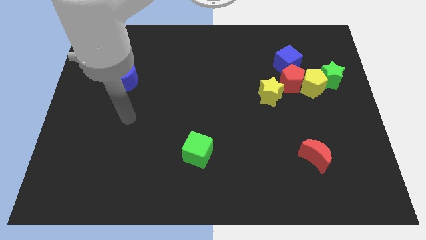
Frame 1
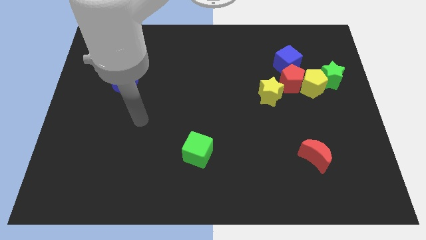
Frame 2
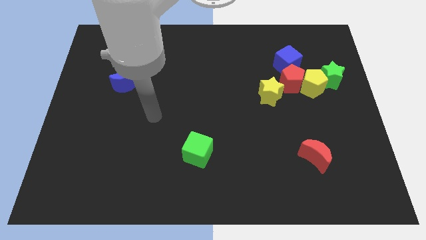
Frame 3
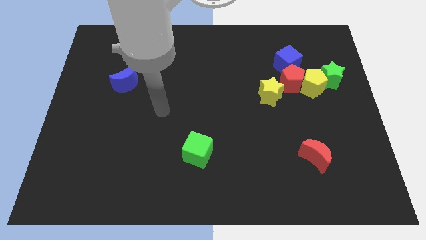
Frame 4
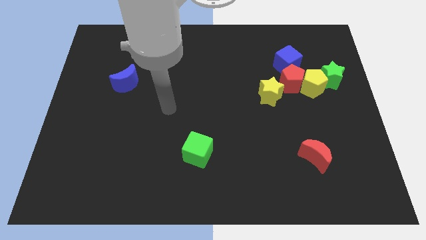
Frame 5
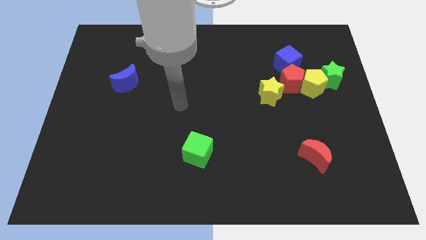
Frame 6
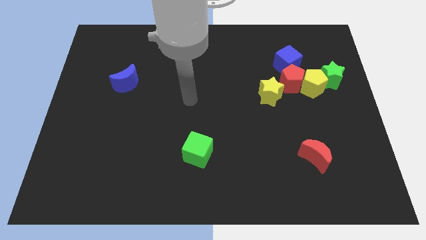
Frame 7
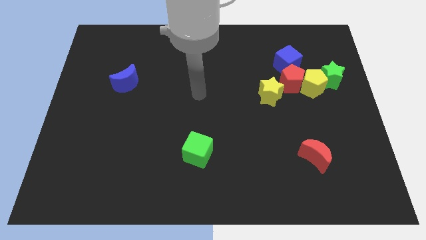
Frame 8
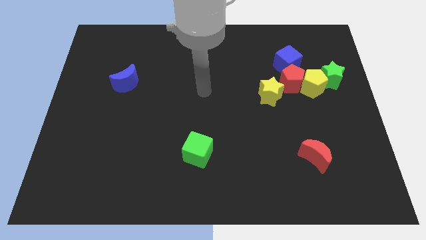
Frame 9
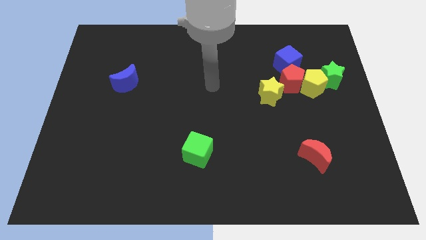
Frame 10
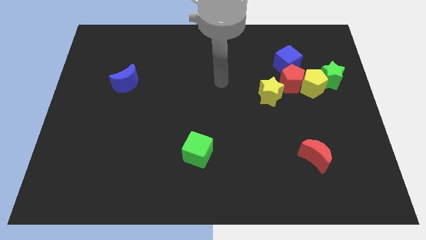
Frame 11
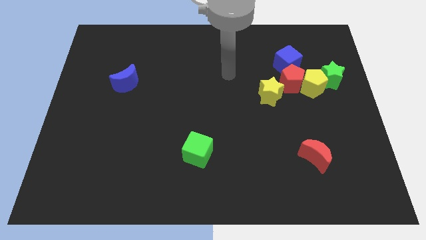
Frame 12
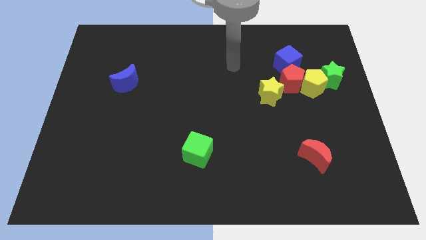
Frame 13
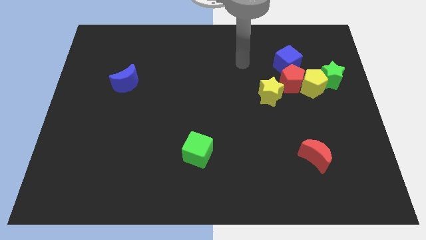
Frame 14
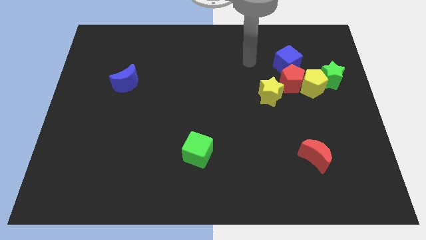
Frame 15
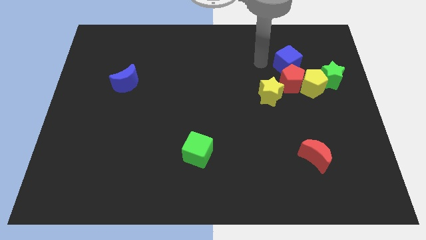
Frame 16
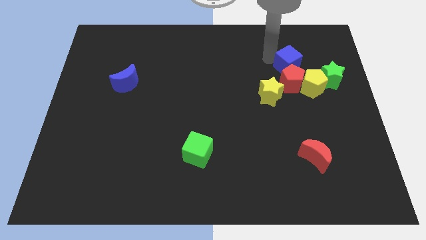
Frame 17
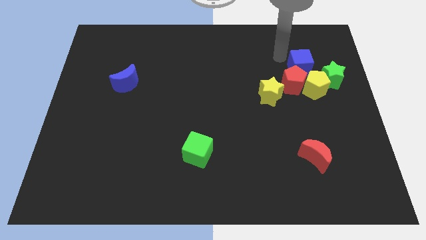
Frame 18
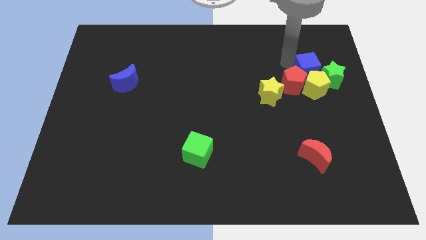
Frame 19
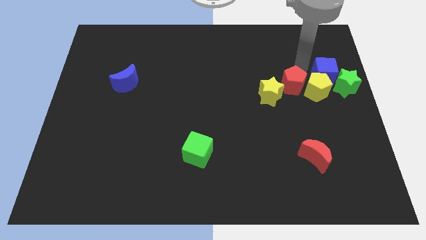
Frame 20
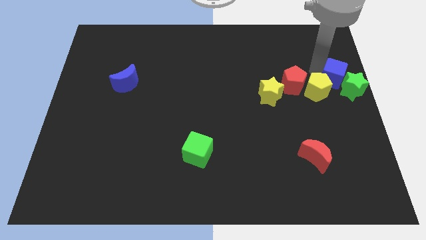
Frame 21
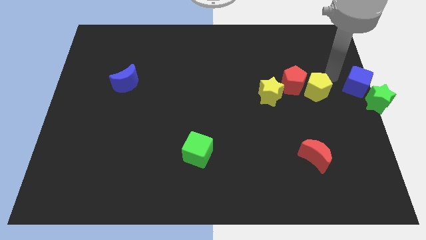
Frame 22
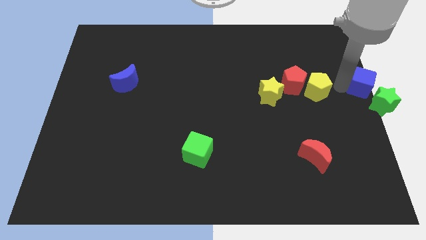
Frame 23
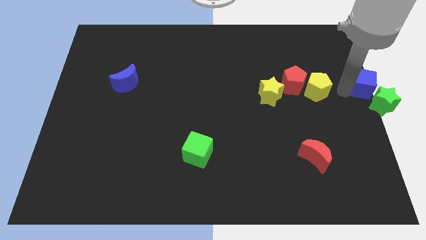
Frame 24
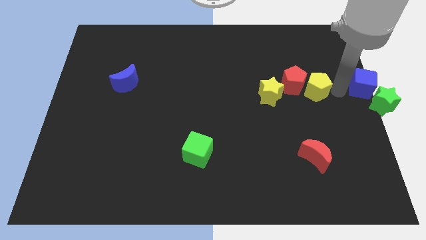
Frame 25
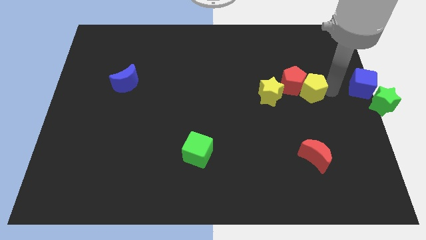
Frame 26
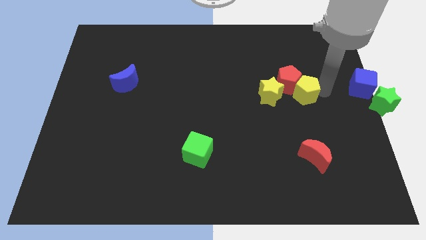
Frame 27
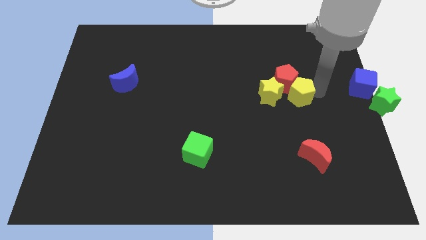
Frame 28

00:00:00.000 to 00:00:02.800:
separate the yellow pentagon from the group of blocks

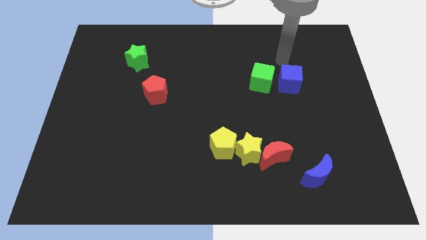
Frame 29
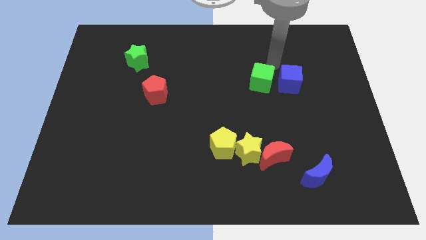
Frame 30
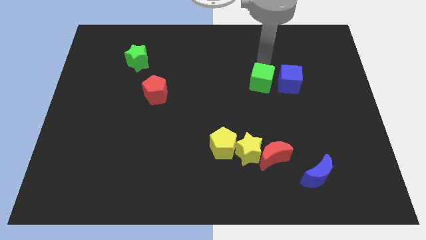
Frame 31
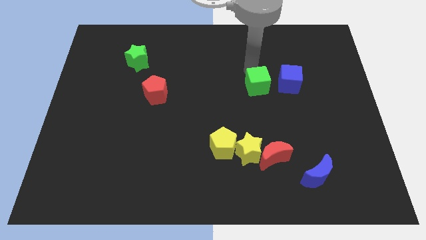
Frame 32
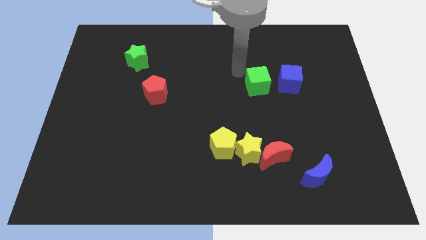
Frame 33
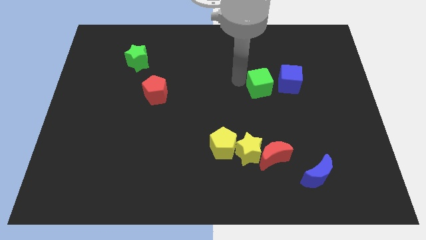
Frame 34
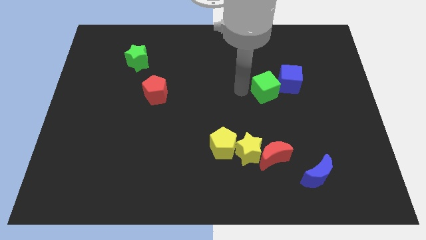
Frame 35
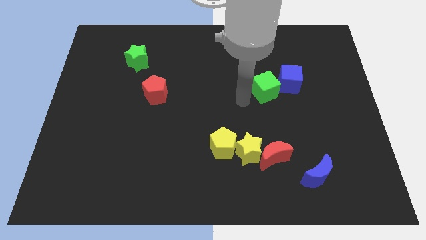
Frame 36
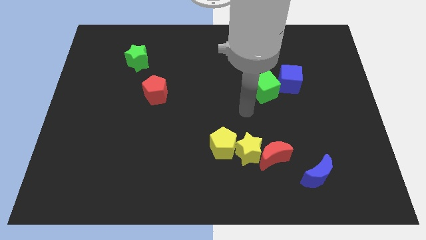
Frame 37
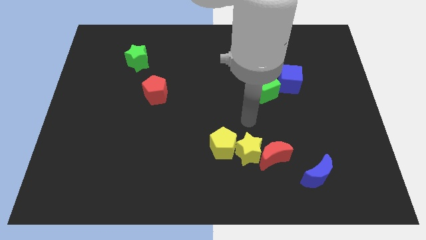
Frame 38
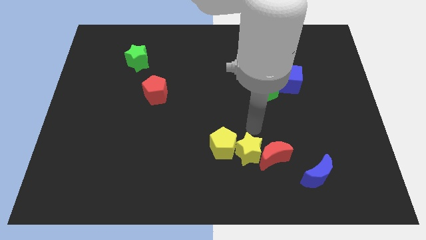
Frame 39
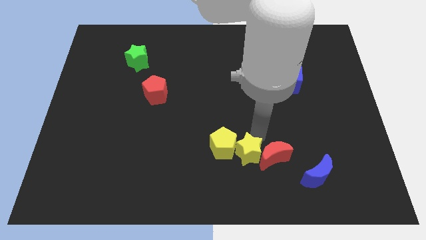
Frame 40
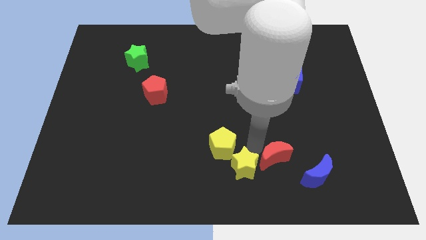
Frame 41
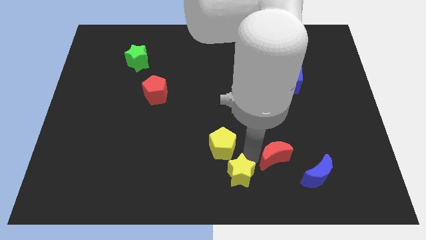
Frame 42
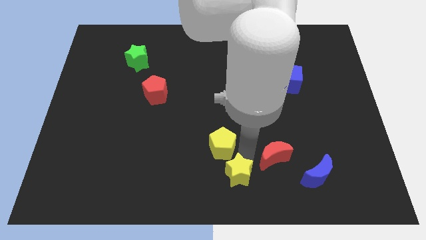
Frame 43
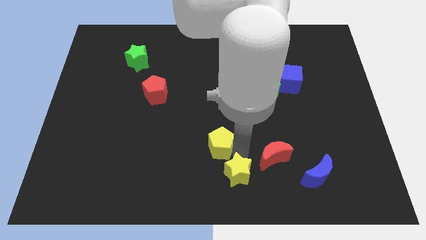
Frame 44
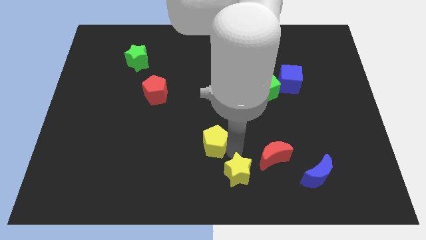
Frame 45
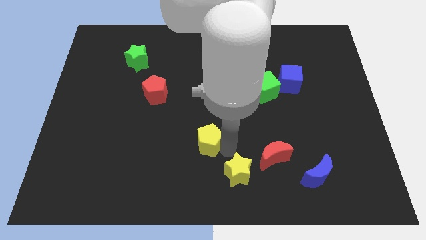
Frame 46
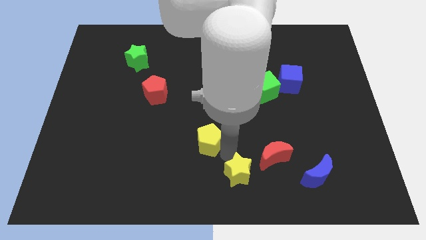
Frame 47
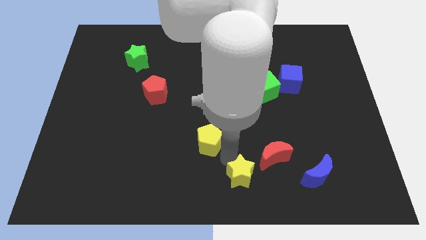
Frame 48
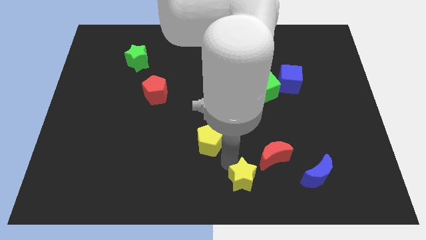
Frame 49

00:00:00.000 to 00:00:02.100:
move the yellow pentagon away from the yellow star

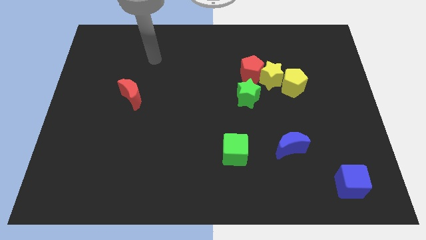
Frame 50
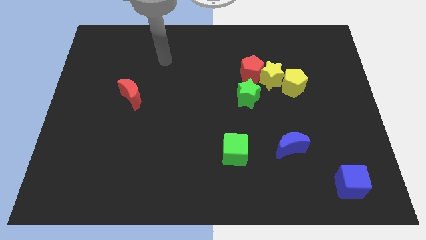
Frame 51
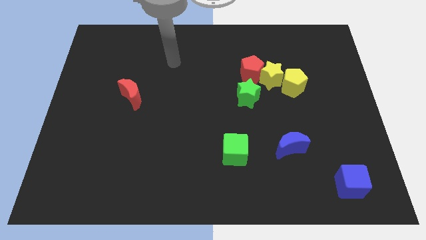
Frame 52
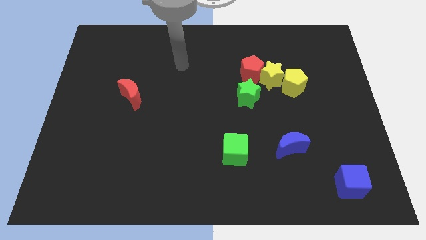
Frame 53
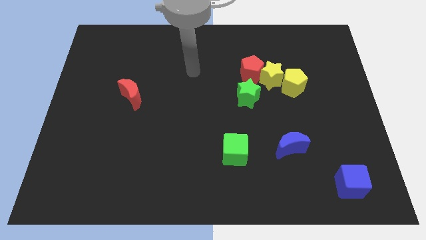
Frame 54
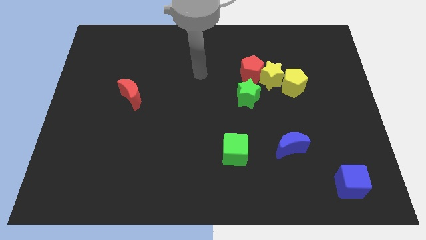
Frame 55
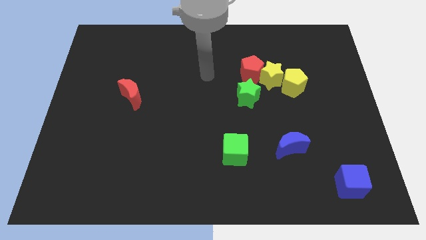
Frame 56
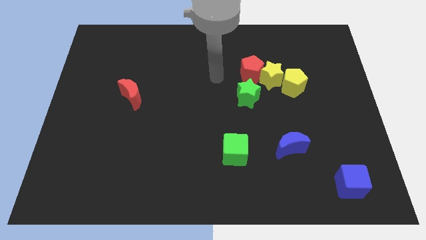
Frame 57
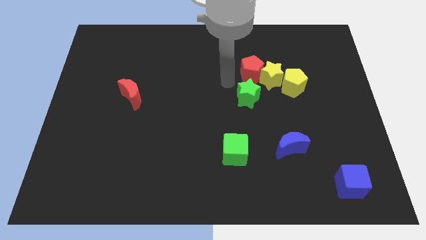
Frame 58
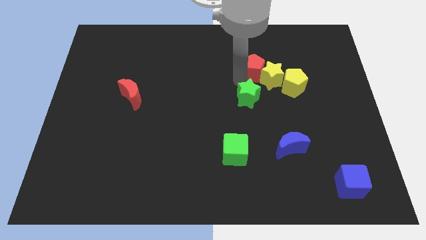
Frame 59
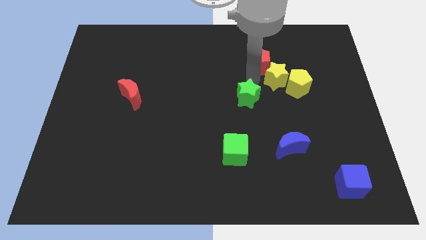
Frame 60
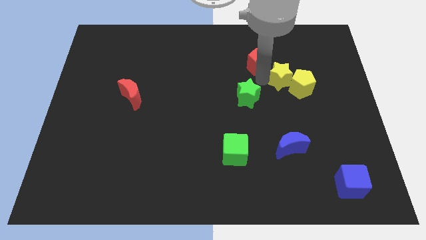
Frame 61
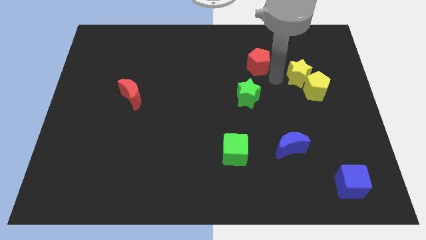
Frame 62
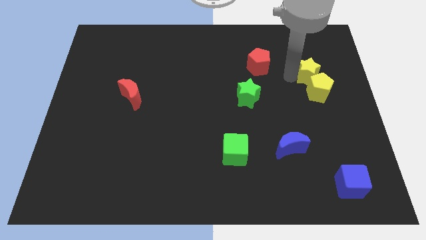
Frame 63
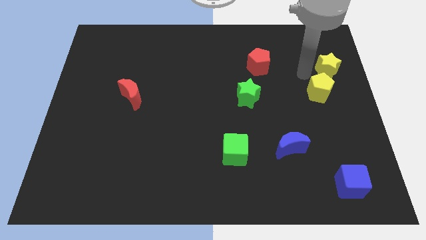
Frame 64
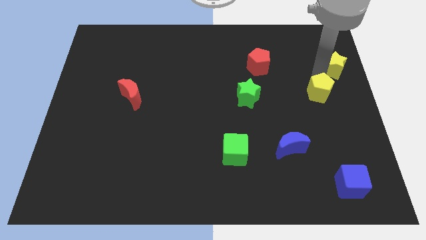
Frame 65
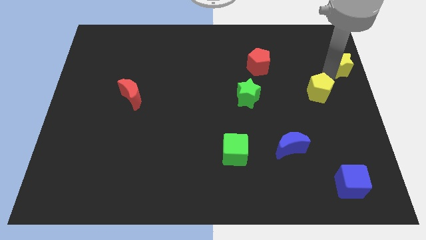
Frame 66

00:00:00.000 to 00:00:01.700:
pull the yellow pentagon apart from the yellow star

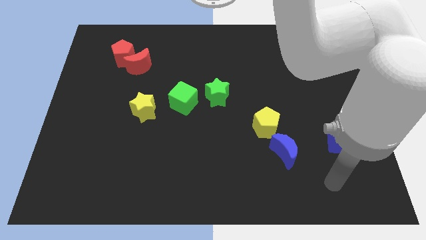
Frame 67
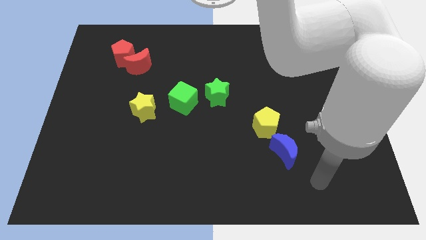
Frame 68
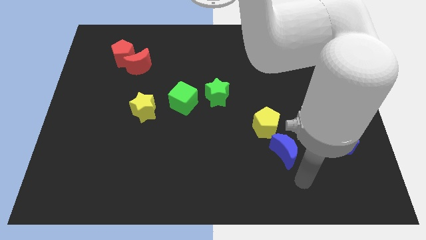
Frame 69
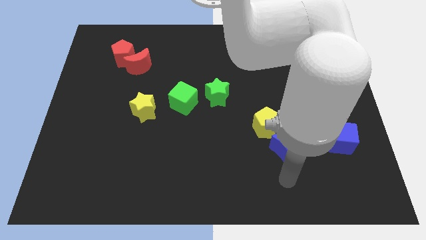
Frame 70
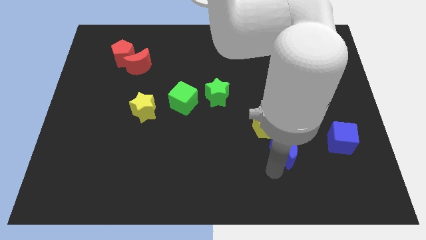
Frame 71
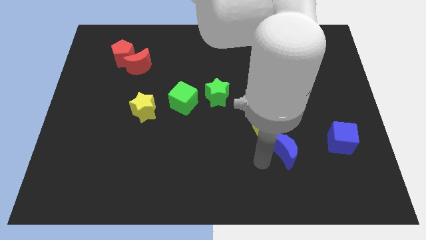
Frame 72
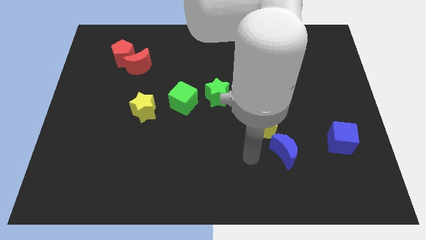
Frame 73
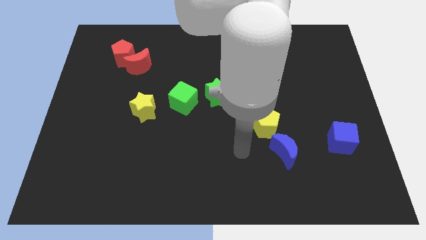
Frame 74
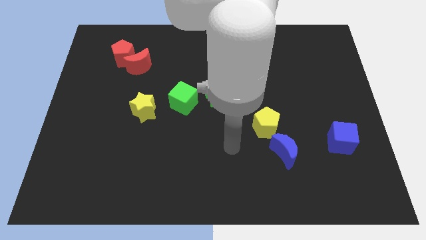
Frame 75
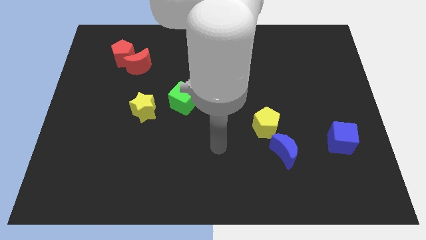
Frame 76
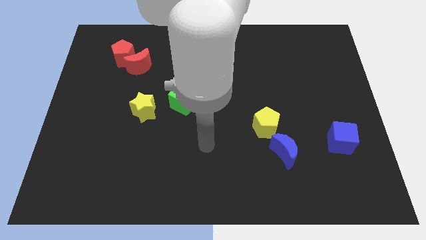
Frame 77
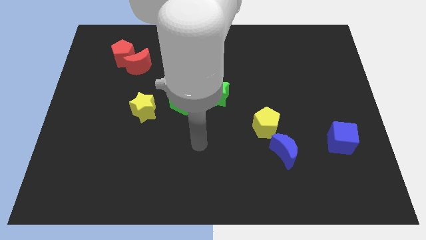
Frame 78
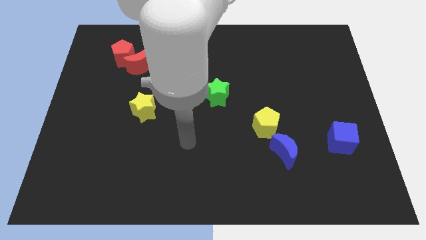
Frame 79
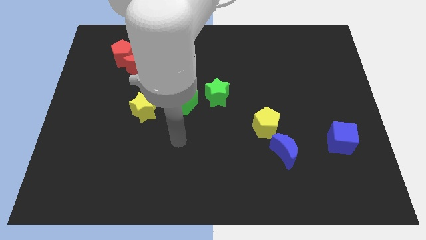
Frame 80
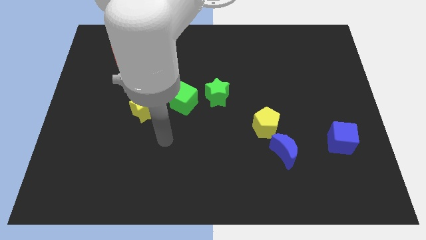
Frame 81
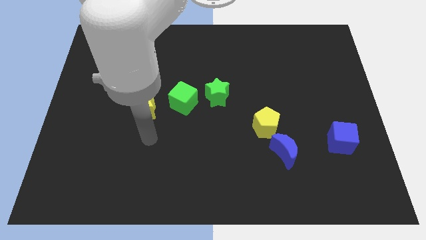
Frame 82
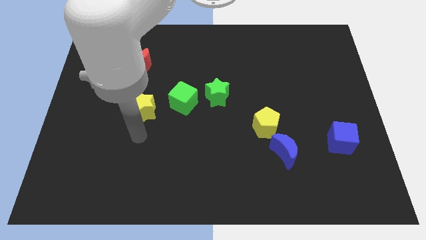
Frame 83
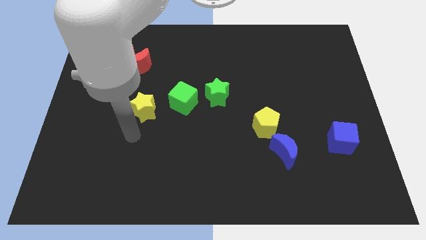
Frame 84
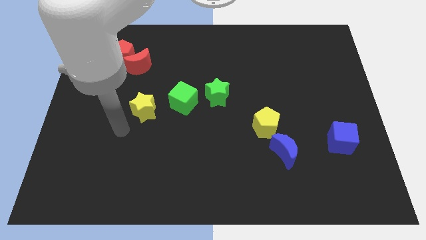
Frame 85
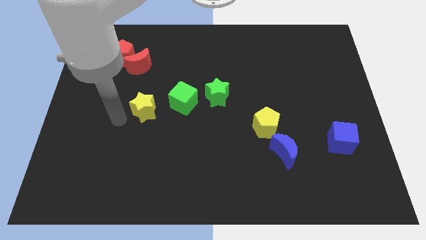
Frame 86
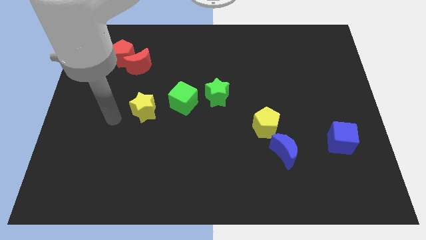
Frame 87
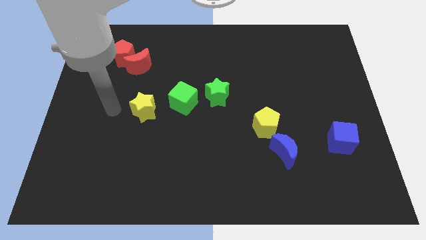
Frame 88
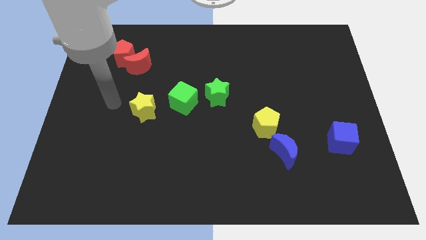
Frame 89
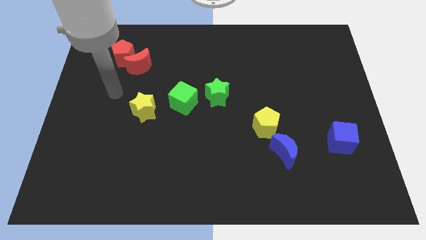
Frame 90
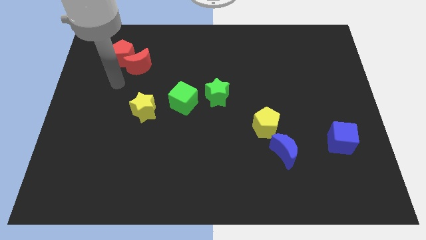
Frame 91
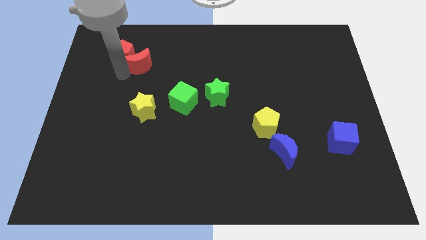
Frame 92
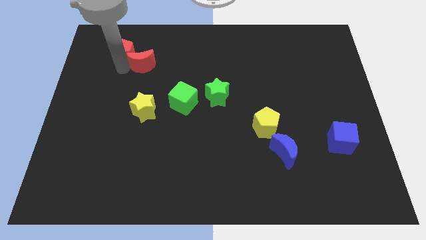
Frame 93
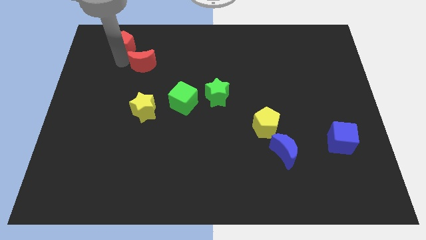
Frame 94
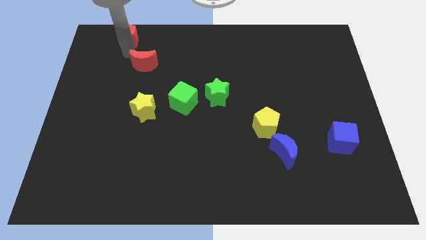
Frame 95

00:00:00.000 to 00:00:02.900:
separate the red moon from the red pentagon
